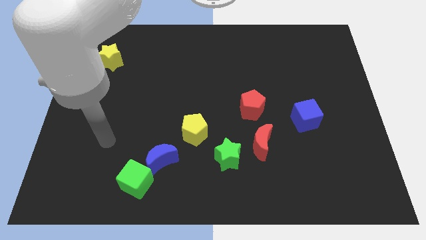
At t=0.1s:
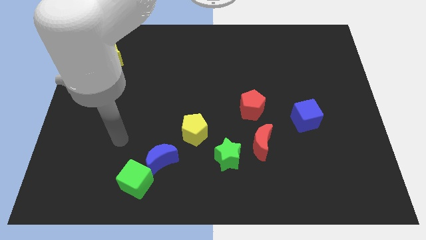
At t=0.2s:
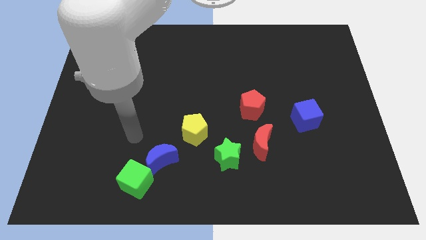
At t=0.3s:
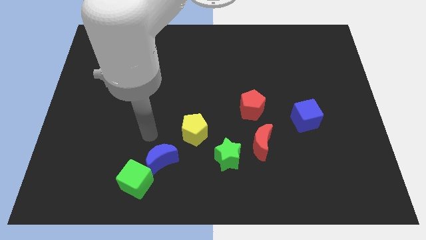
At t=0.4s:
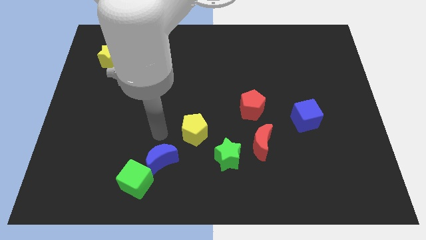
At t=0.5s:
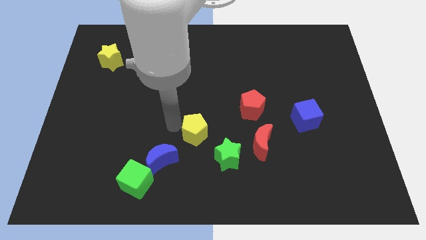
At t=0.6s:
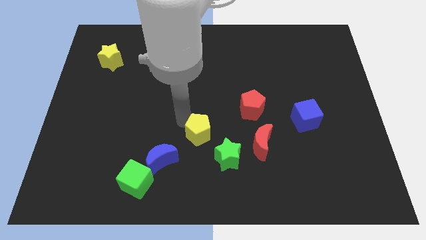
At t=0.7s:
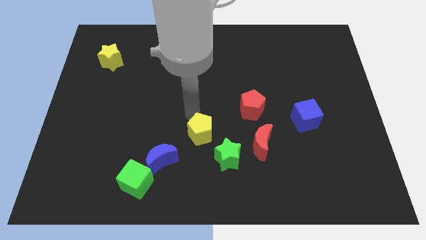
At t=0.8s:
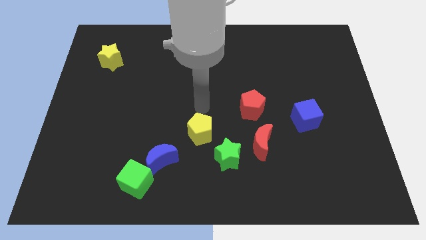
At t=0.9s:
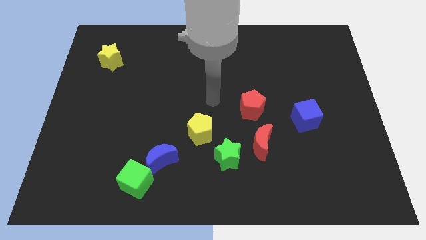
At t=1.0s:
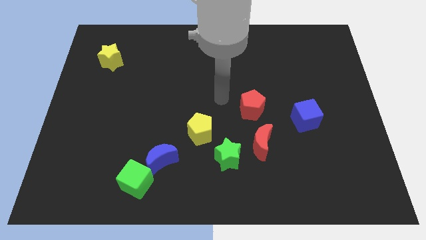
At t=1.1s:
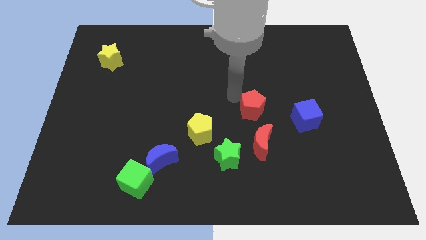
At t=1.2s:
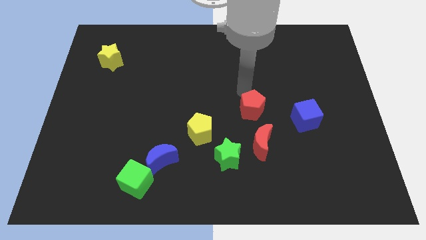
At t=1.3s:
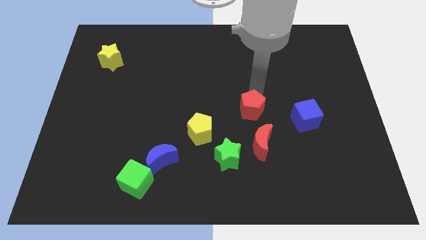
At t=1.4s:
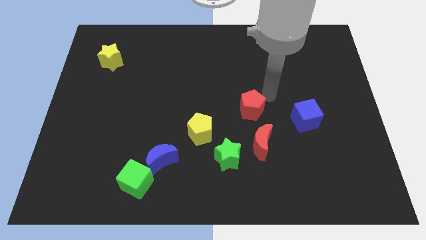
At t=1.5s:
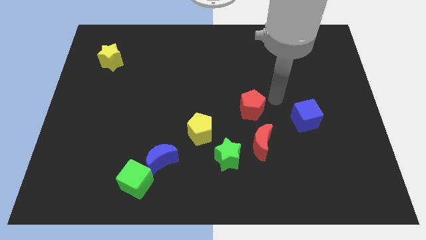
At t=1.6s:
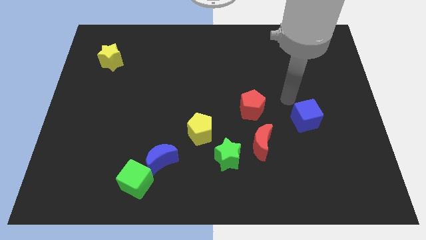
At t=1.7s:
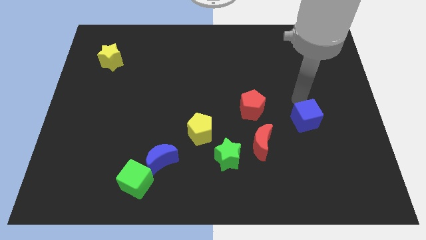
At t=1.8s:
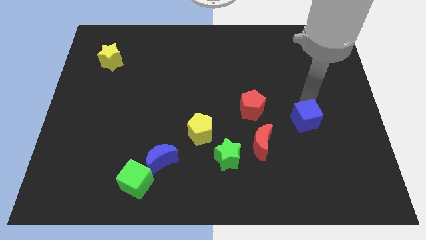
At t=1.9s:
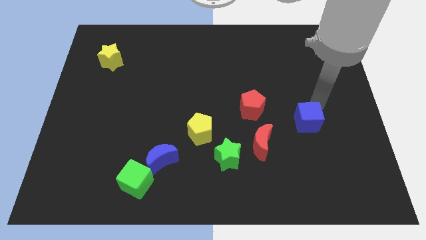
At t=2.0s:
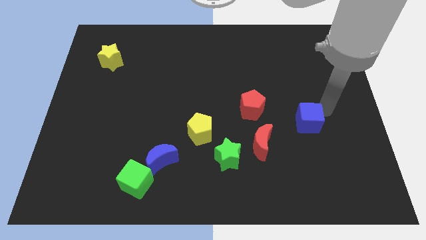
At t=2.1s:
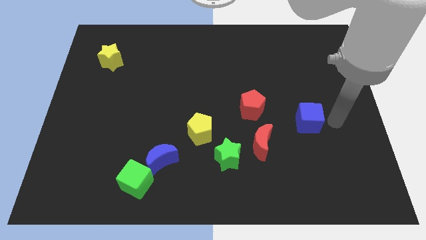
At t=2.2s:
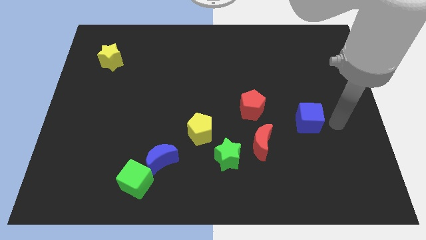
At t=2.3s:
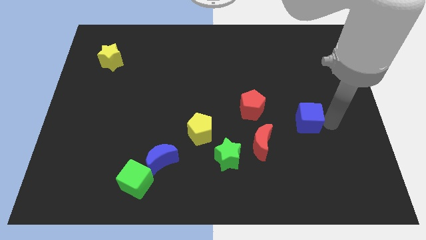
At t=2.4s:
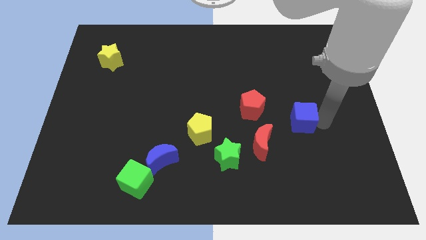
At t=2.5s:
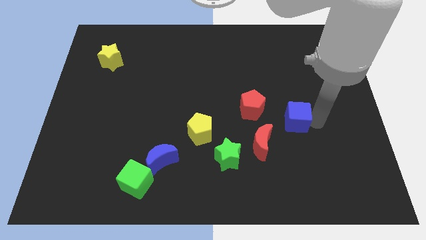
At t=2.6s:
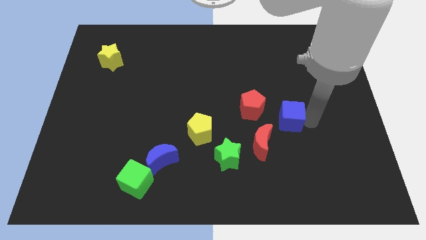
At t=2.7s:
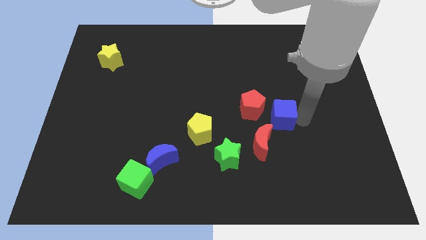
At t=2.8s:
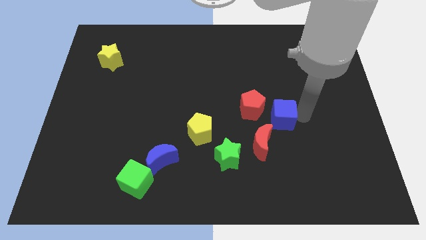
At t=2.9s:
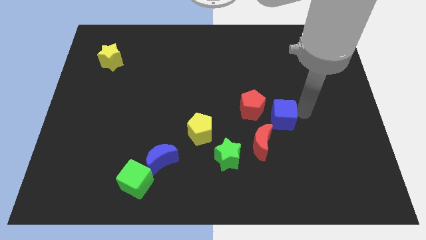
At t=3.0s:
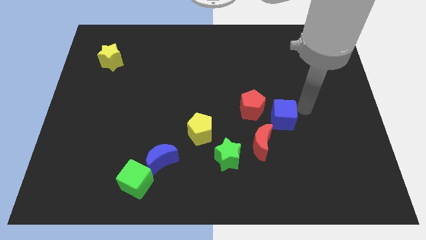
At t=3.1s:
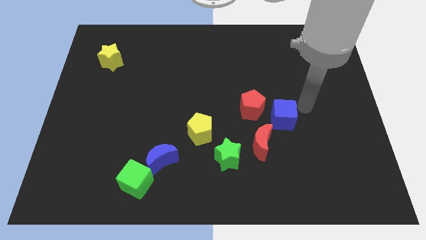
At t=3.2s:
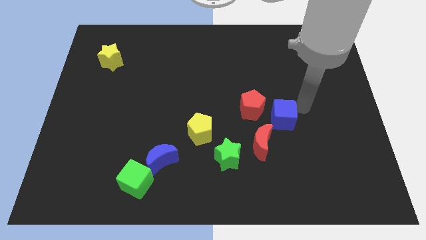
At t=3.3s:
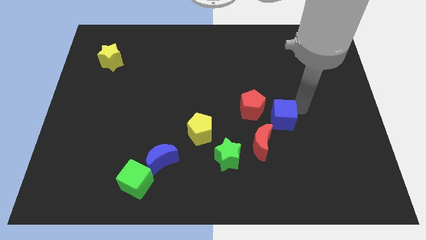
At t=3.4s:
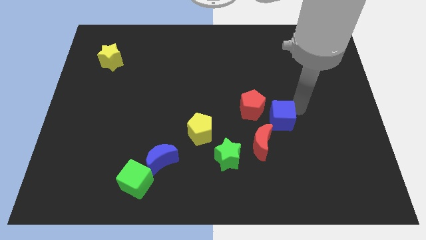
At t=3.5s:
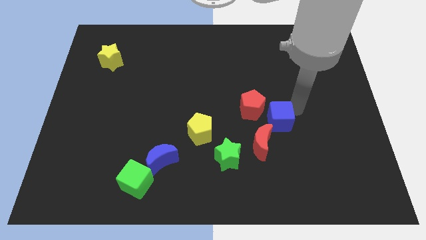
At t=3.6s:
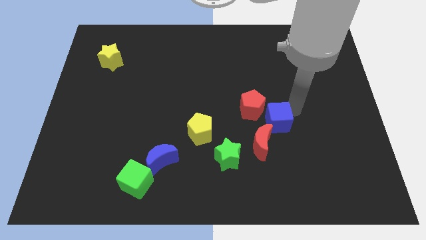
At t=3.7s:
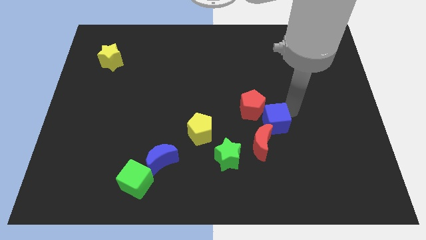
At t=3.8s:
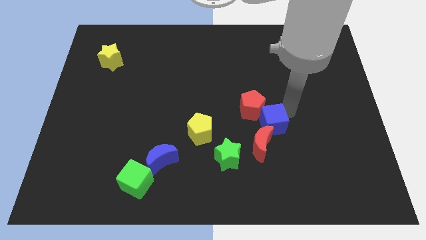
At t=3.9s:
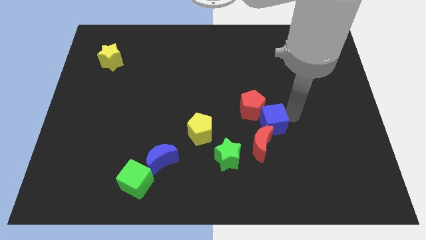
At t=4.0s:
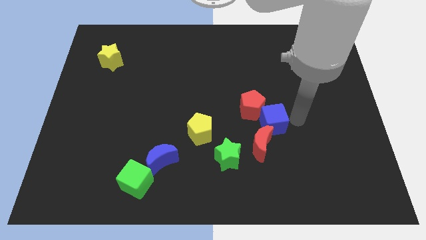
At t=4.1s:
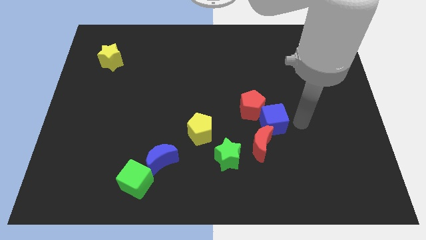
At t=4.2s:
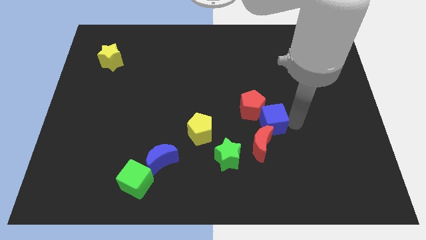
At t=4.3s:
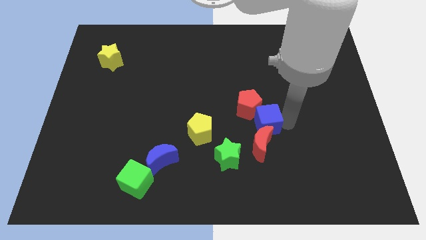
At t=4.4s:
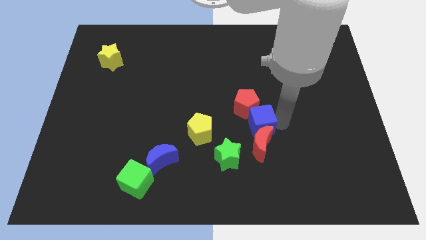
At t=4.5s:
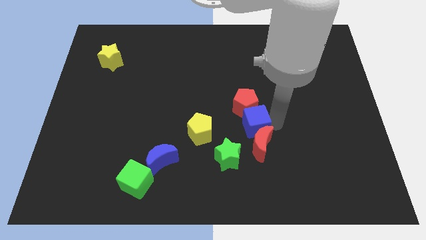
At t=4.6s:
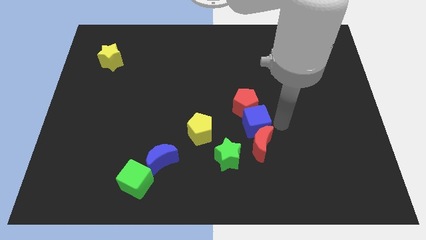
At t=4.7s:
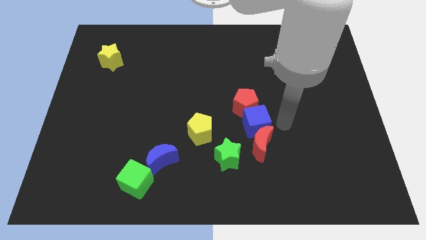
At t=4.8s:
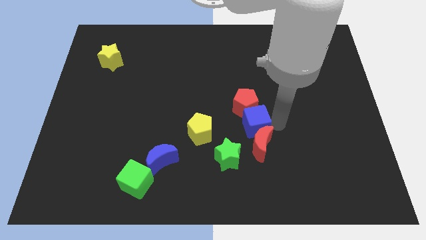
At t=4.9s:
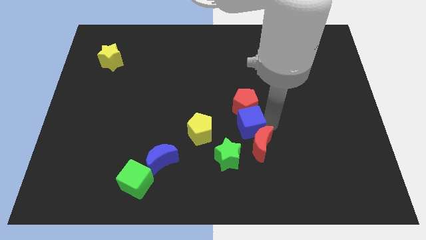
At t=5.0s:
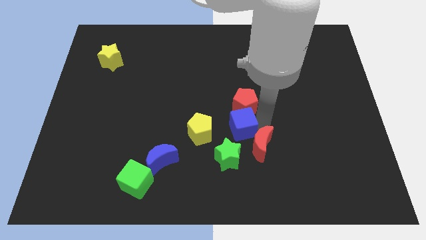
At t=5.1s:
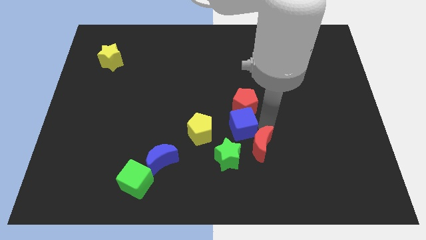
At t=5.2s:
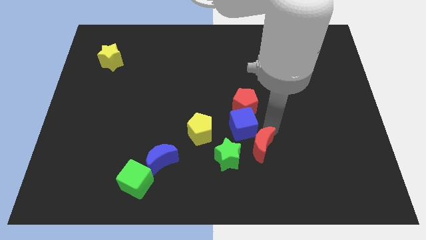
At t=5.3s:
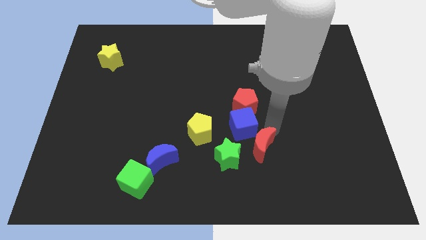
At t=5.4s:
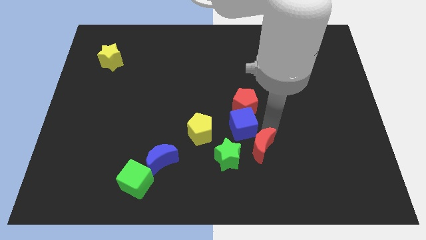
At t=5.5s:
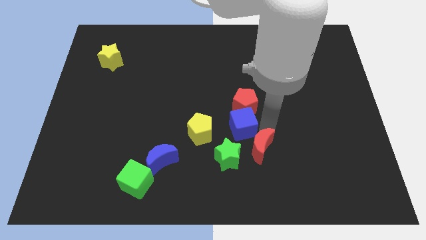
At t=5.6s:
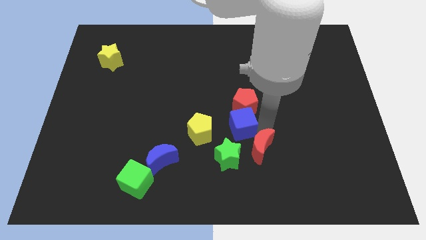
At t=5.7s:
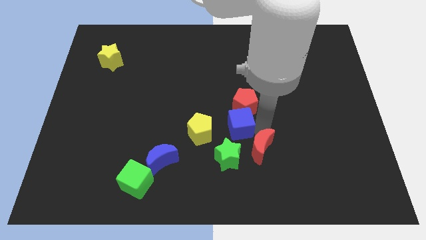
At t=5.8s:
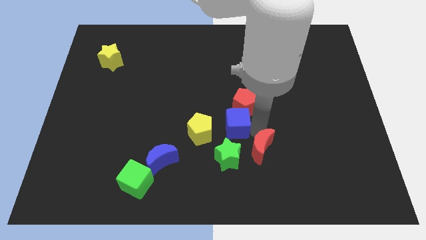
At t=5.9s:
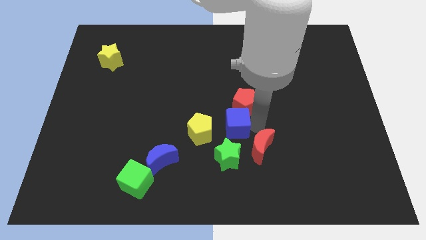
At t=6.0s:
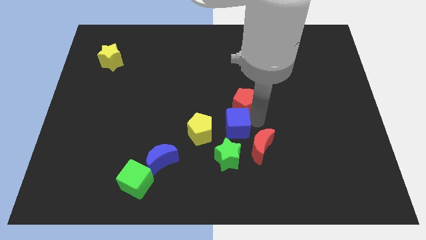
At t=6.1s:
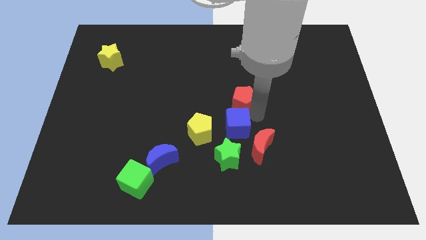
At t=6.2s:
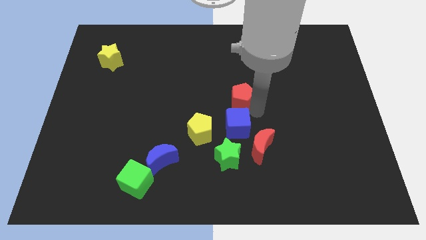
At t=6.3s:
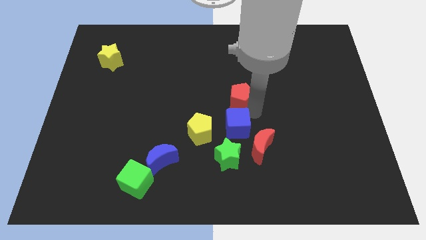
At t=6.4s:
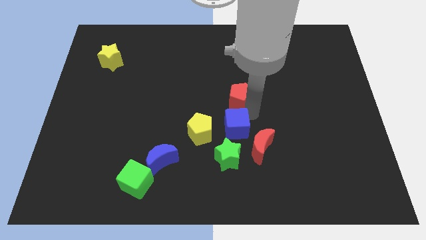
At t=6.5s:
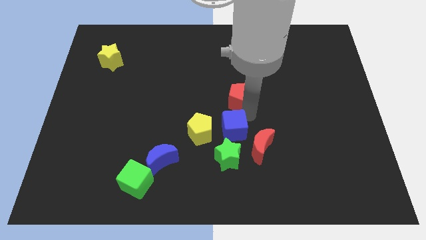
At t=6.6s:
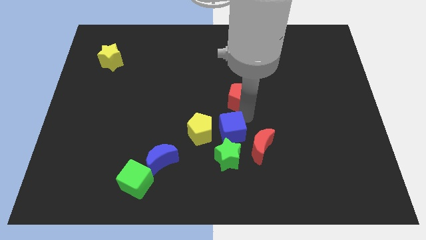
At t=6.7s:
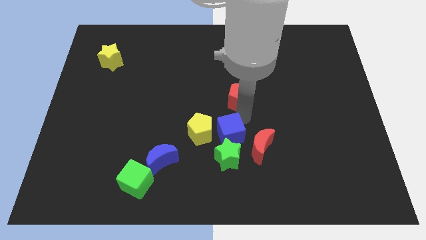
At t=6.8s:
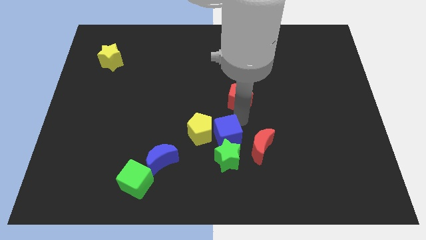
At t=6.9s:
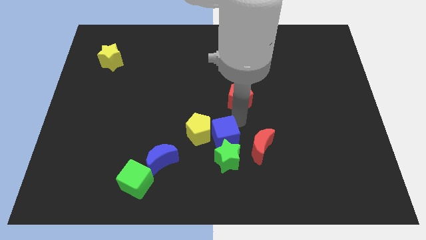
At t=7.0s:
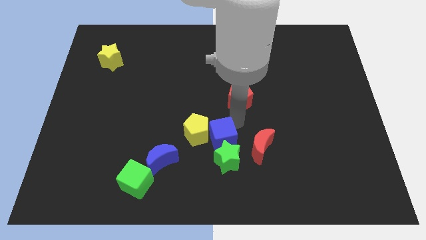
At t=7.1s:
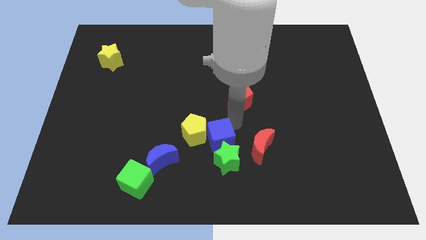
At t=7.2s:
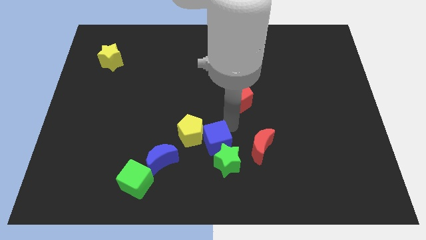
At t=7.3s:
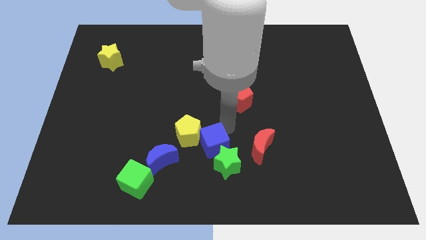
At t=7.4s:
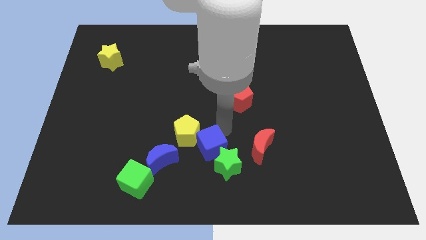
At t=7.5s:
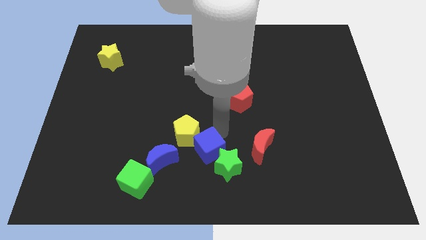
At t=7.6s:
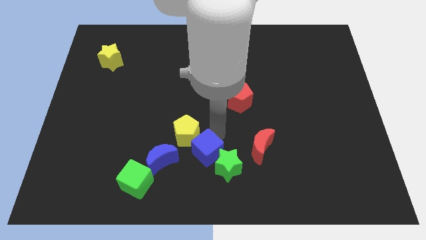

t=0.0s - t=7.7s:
put the blue cube to the bottom side of the yellow pentagon
